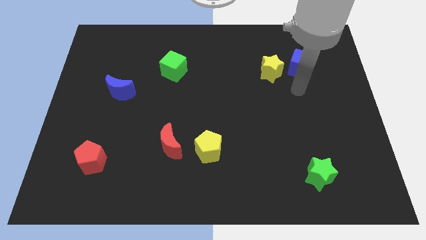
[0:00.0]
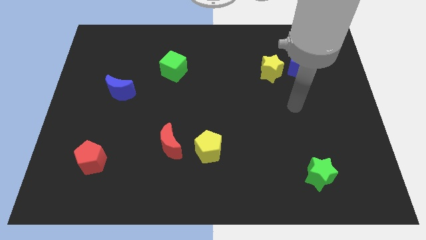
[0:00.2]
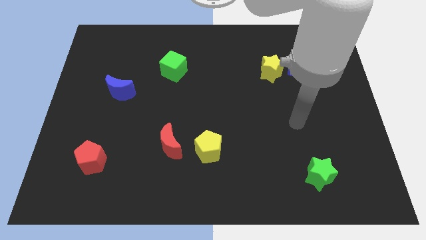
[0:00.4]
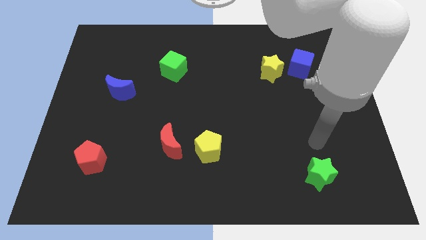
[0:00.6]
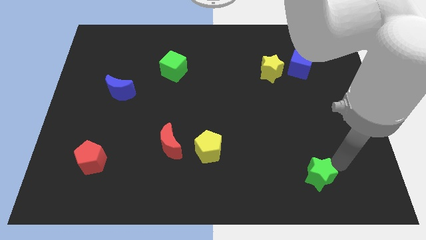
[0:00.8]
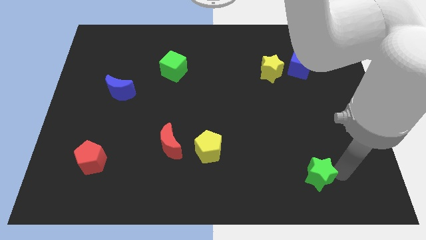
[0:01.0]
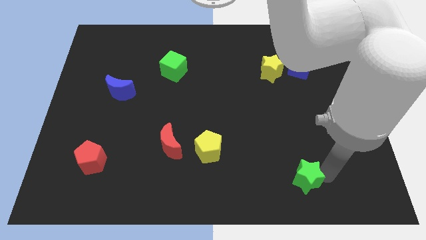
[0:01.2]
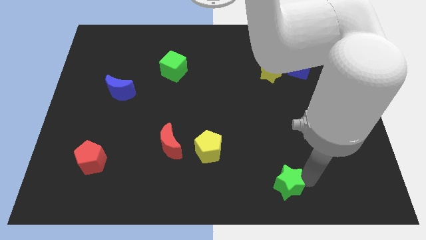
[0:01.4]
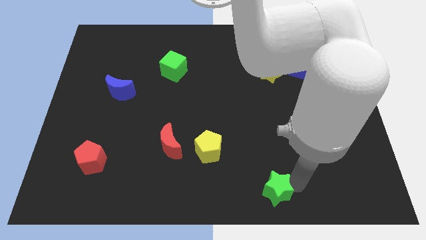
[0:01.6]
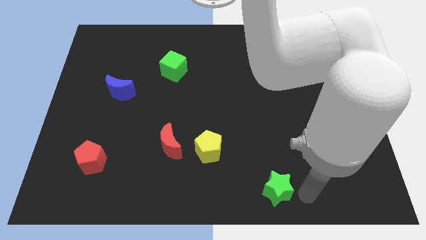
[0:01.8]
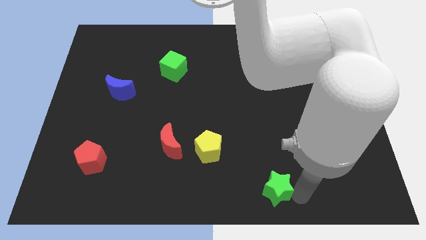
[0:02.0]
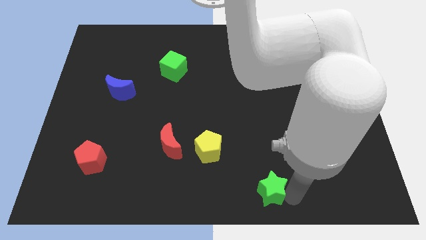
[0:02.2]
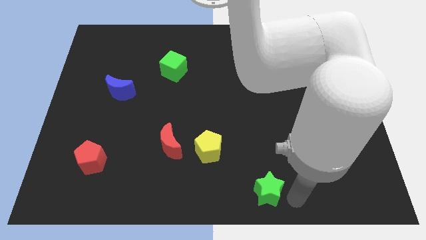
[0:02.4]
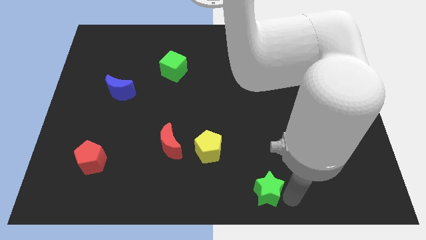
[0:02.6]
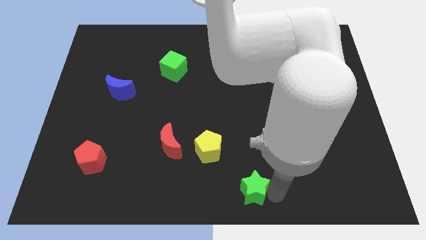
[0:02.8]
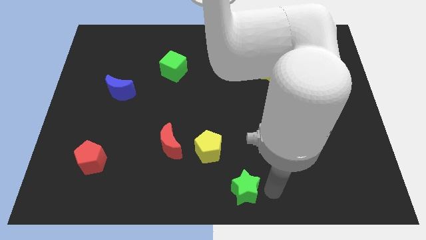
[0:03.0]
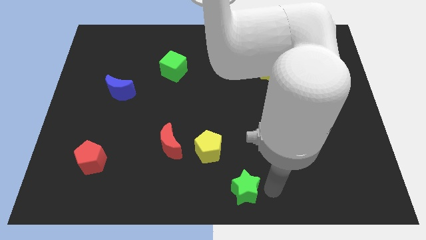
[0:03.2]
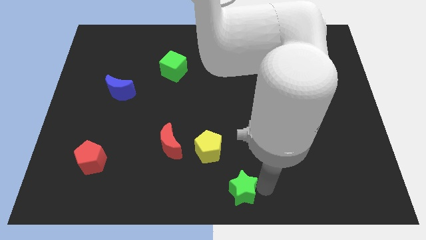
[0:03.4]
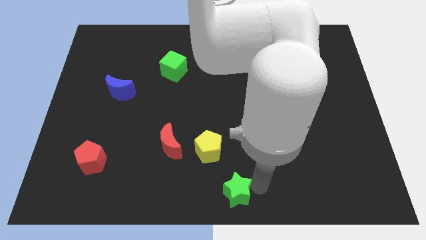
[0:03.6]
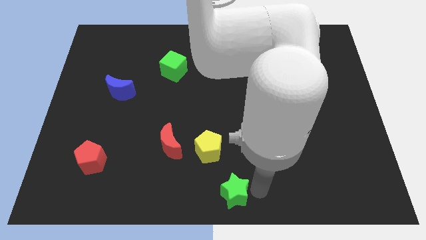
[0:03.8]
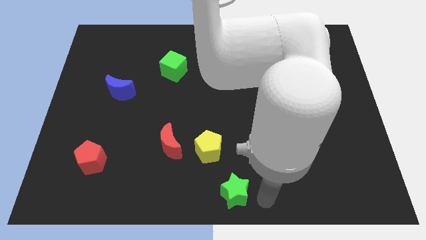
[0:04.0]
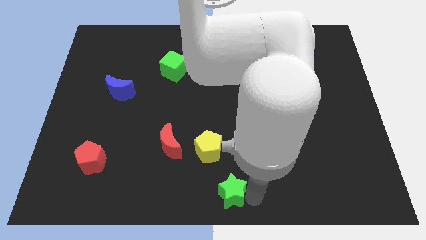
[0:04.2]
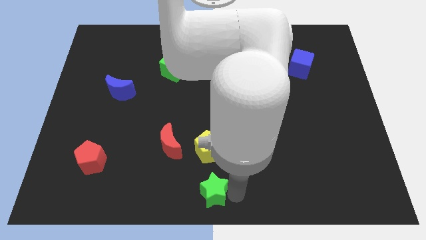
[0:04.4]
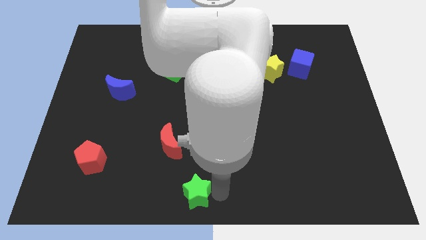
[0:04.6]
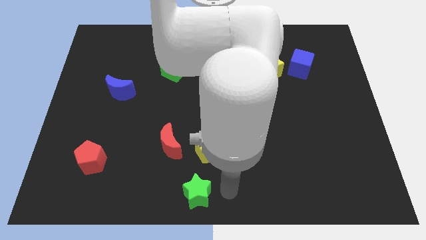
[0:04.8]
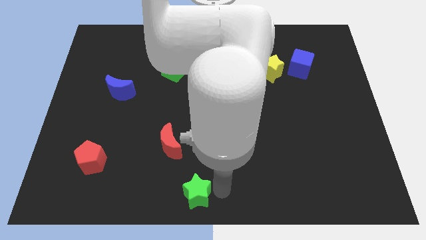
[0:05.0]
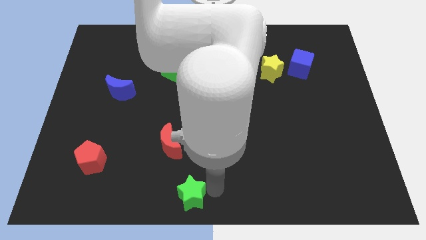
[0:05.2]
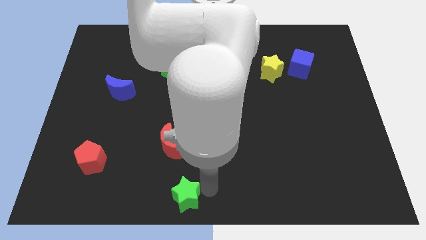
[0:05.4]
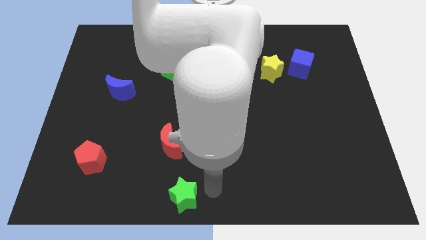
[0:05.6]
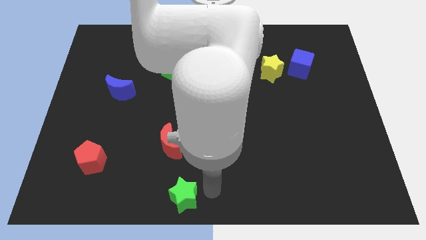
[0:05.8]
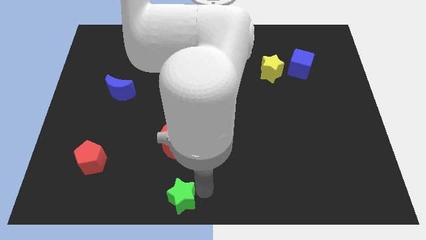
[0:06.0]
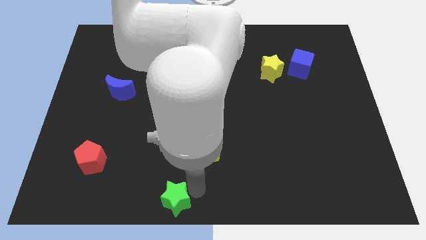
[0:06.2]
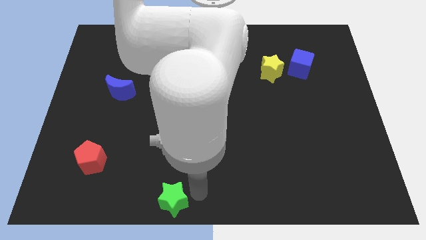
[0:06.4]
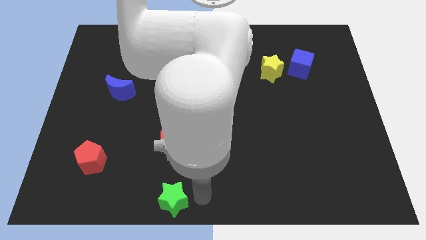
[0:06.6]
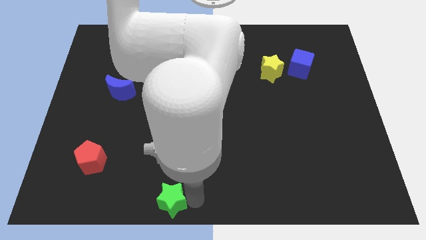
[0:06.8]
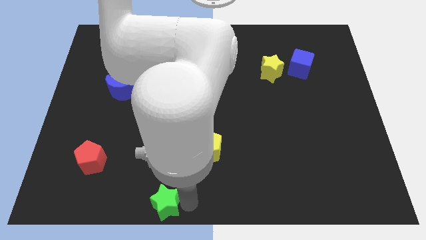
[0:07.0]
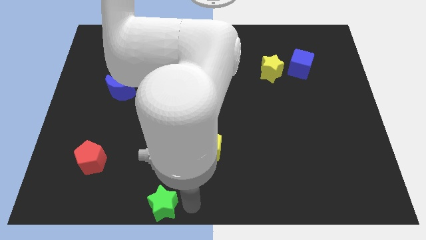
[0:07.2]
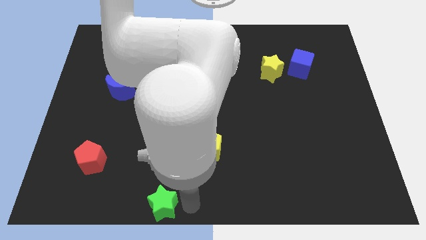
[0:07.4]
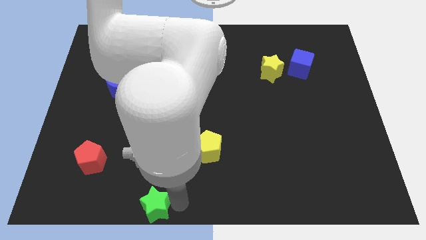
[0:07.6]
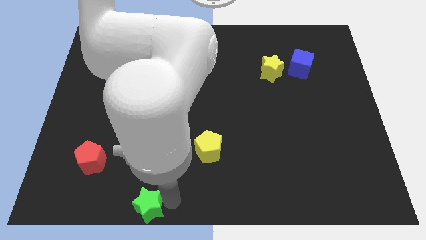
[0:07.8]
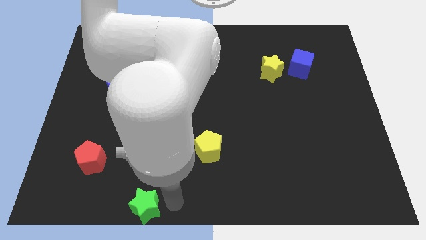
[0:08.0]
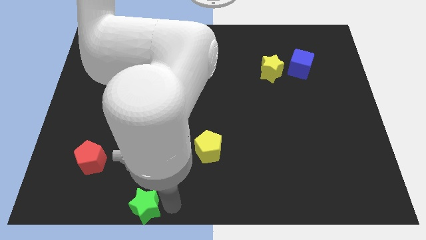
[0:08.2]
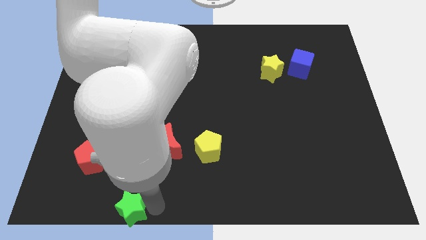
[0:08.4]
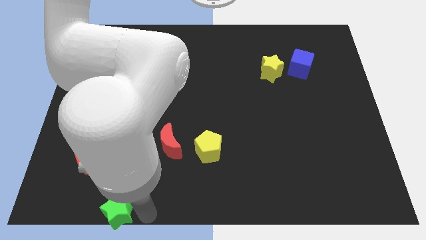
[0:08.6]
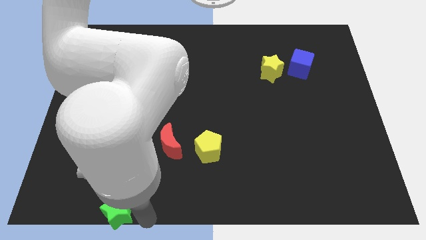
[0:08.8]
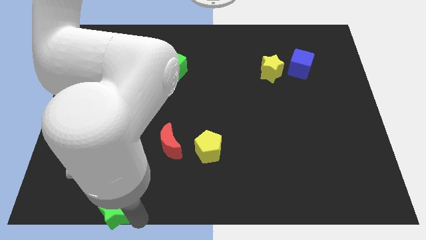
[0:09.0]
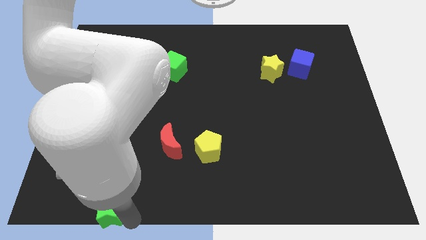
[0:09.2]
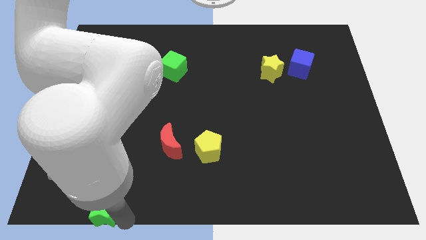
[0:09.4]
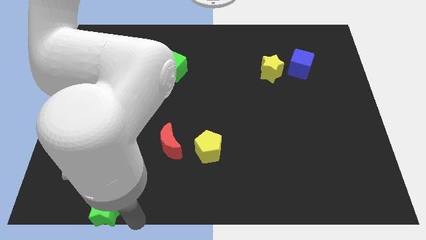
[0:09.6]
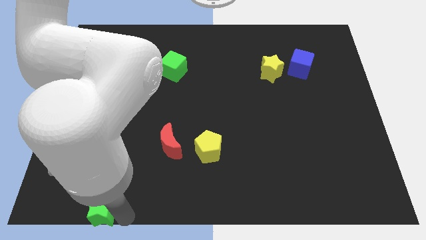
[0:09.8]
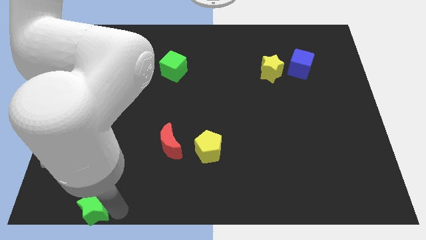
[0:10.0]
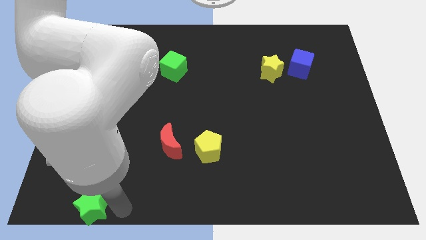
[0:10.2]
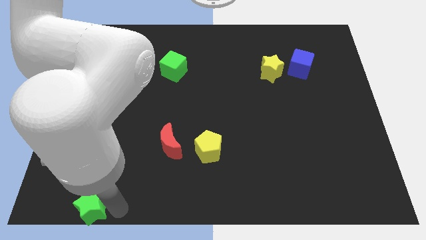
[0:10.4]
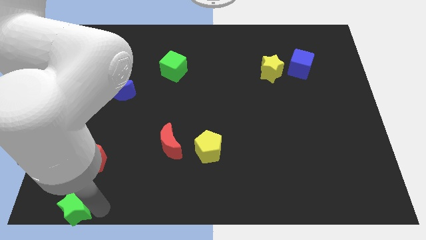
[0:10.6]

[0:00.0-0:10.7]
move the green star to the bottom left of the board

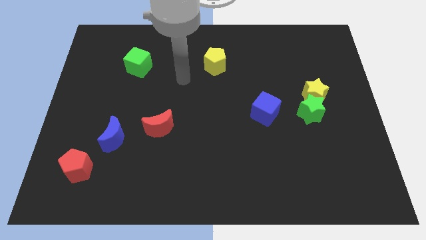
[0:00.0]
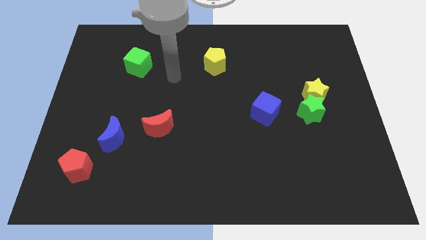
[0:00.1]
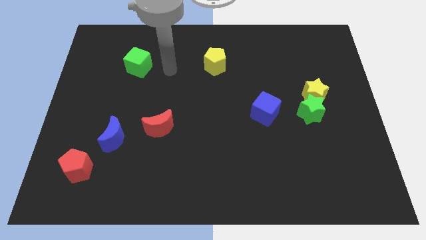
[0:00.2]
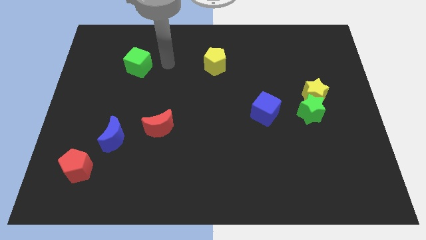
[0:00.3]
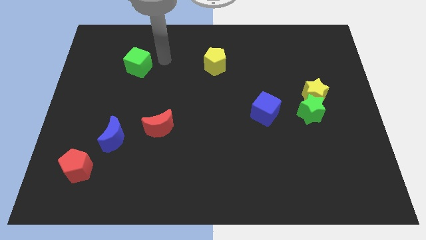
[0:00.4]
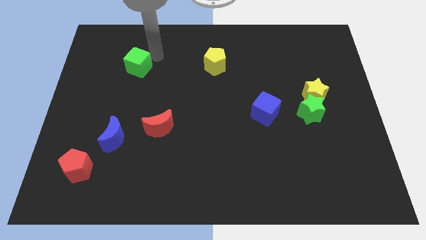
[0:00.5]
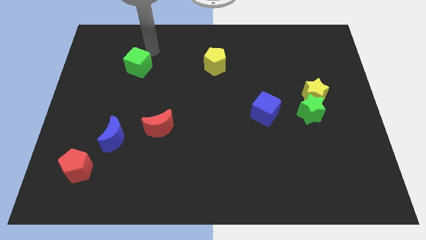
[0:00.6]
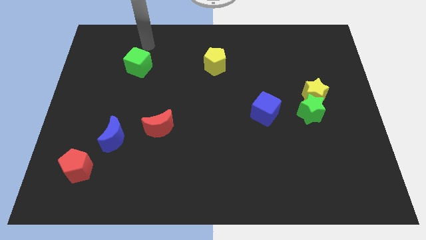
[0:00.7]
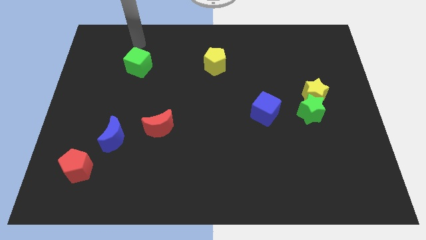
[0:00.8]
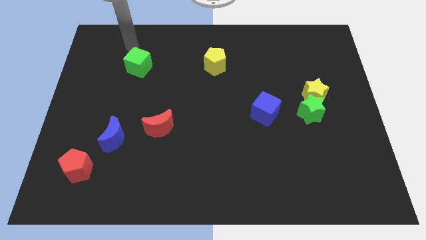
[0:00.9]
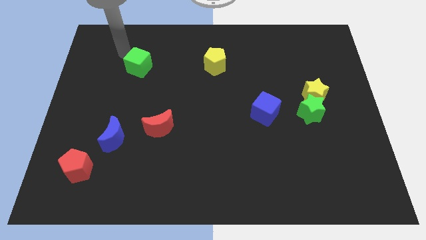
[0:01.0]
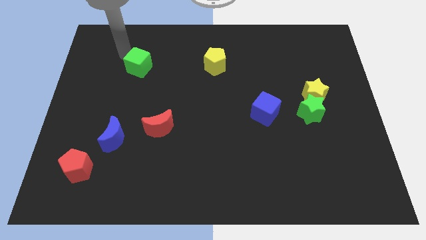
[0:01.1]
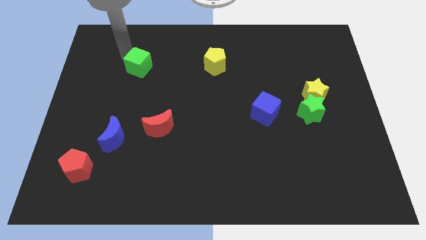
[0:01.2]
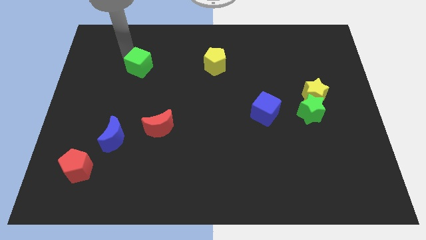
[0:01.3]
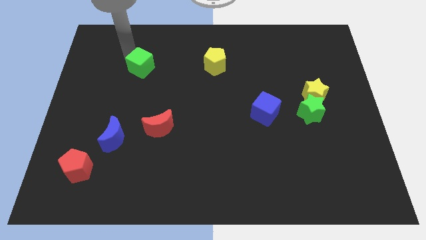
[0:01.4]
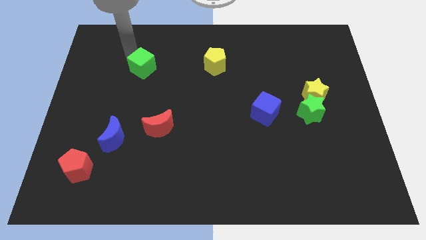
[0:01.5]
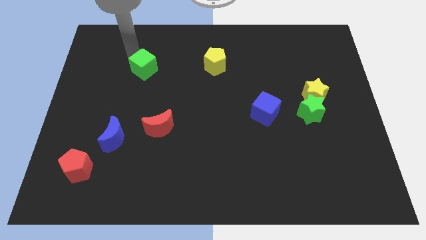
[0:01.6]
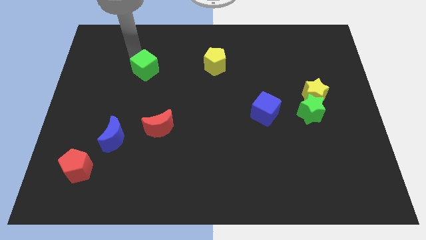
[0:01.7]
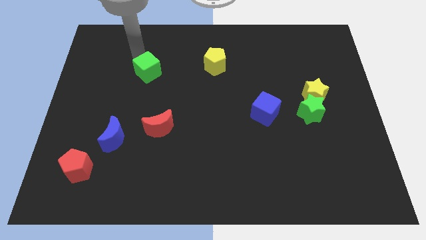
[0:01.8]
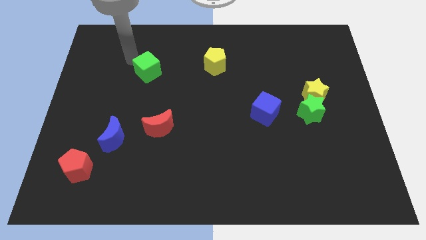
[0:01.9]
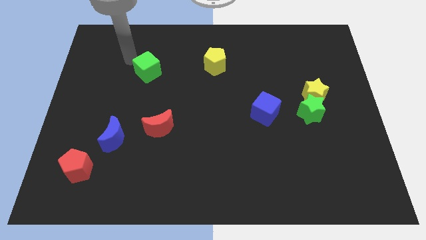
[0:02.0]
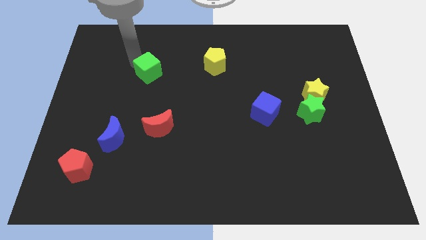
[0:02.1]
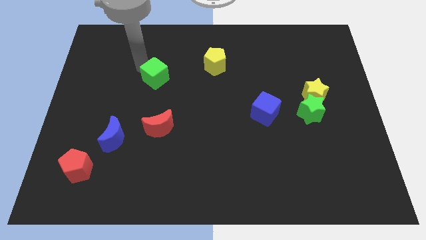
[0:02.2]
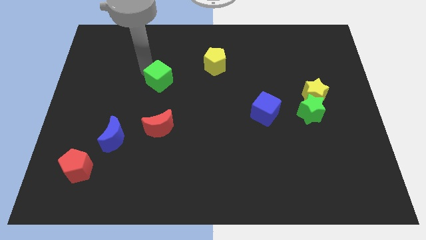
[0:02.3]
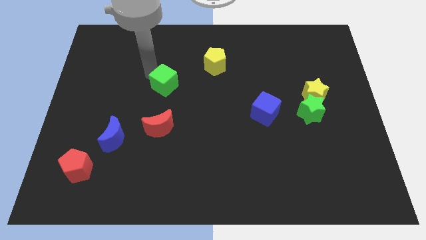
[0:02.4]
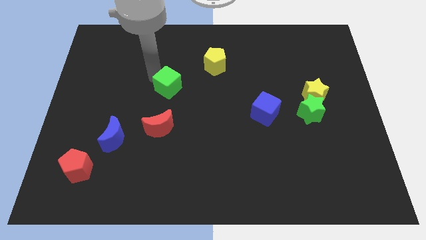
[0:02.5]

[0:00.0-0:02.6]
move the green cube to the middle of the board
